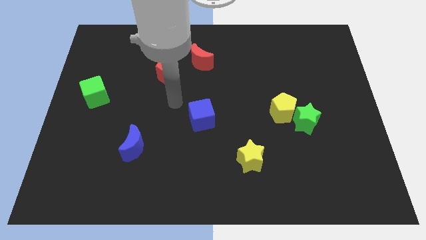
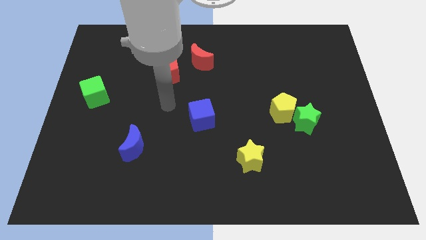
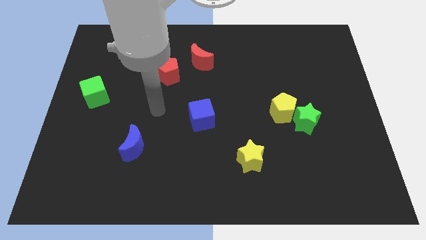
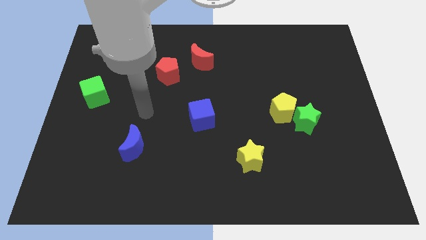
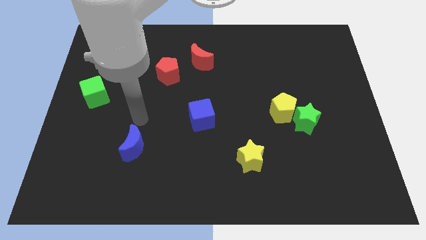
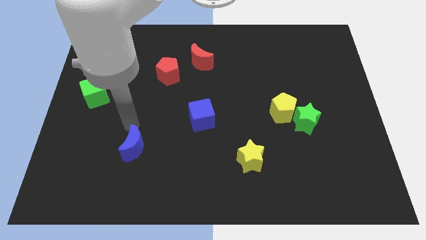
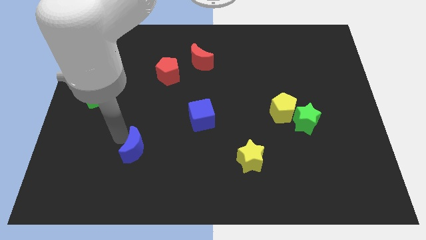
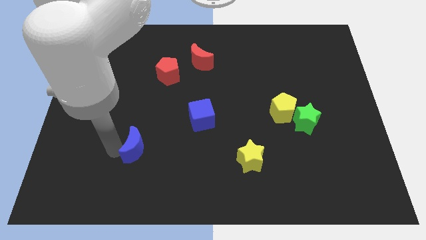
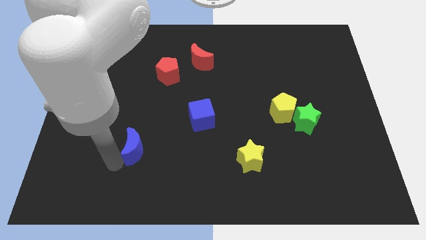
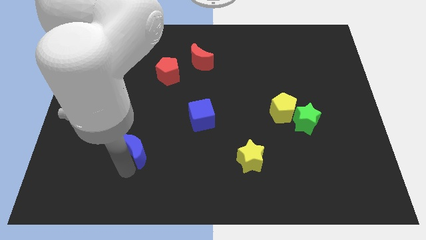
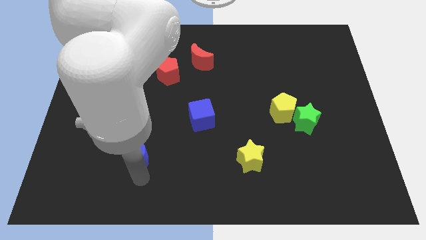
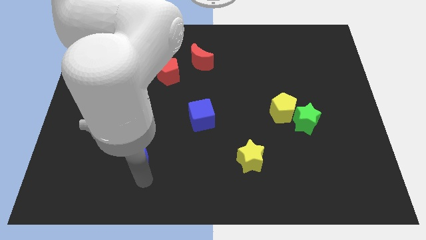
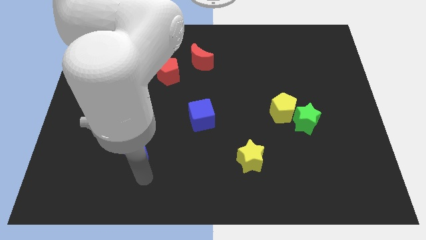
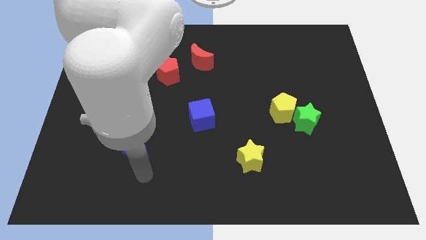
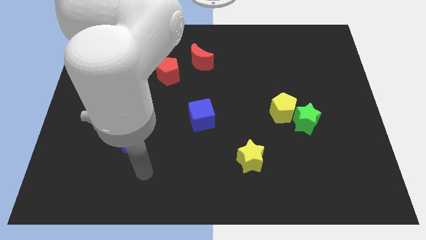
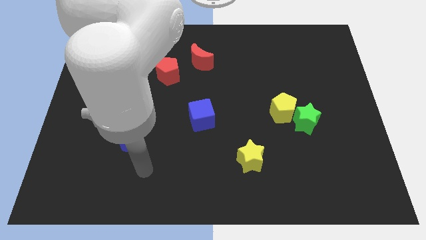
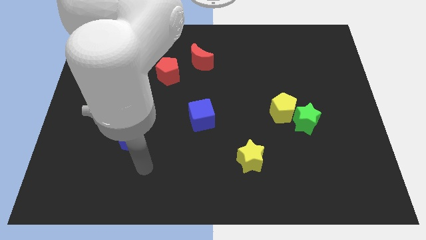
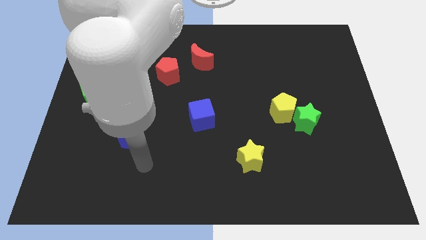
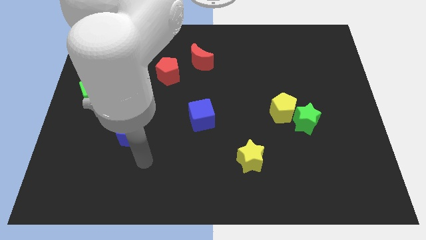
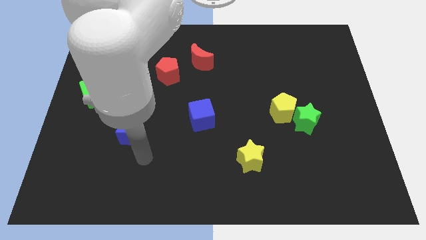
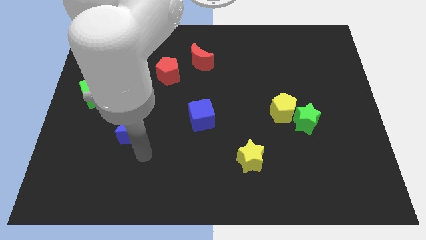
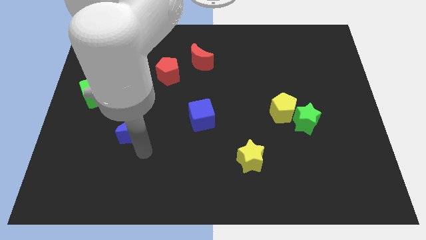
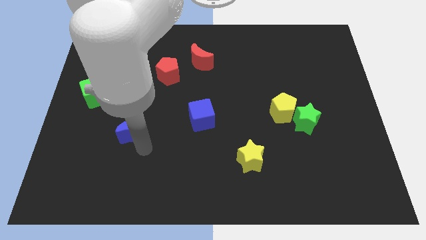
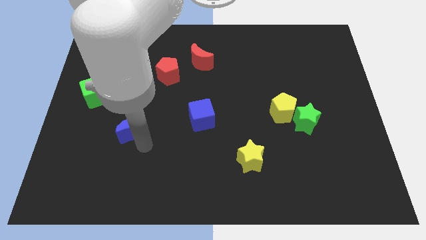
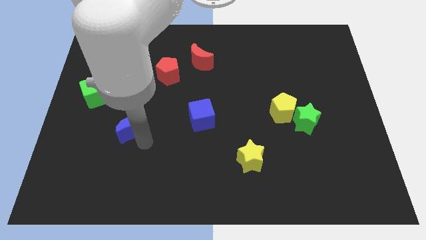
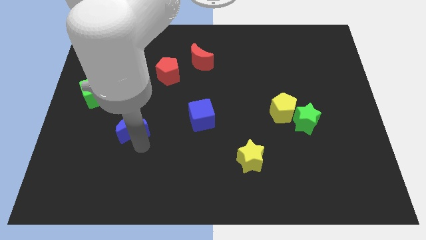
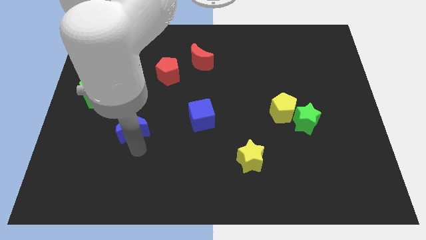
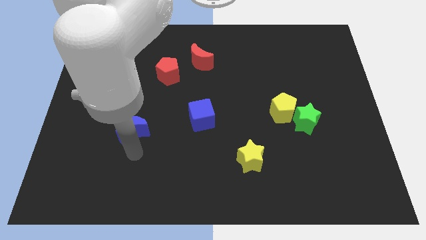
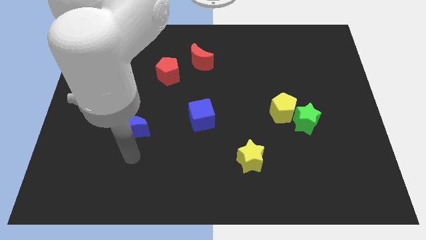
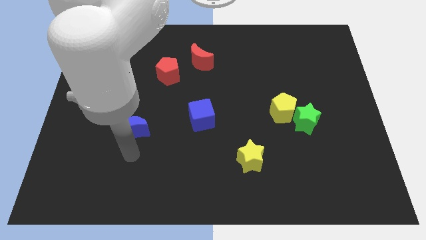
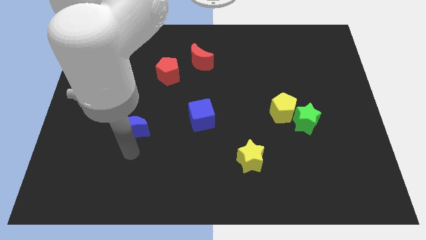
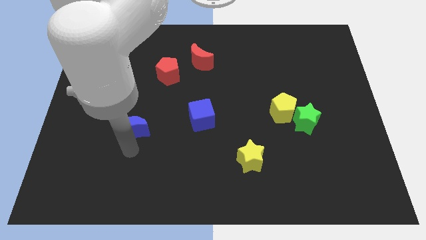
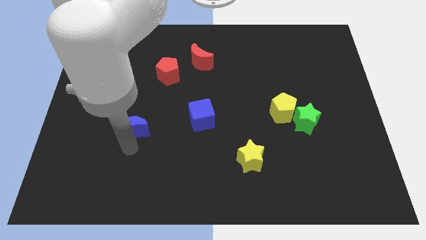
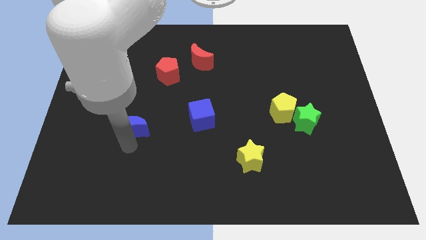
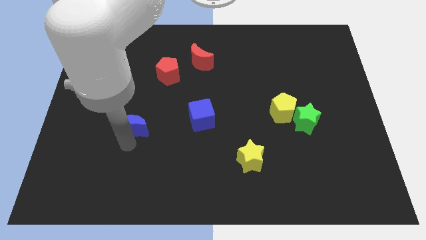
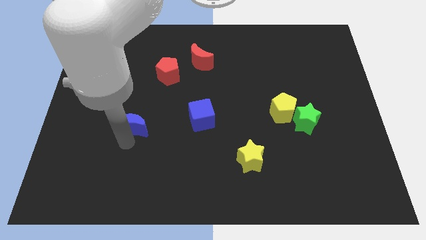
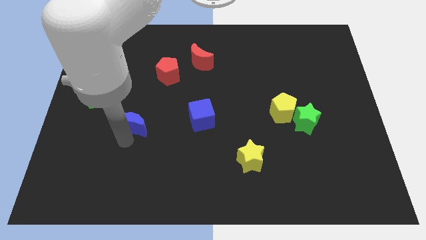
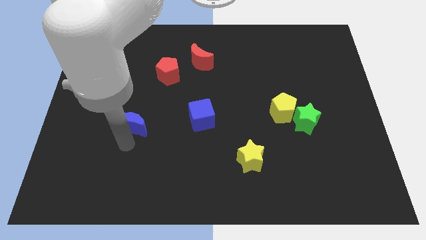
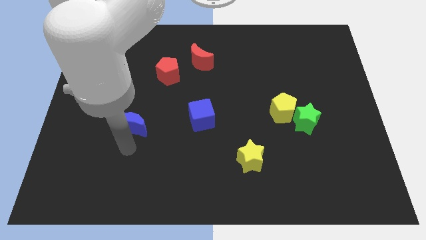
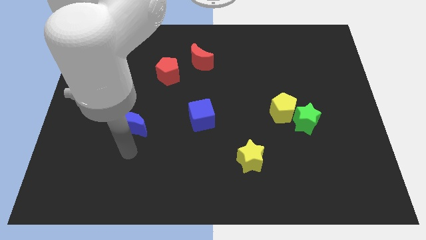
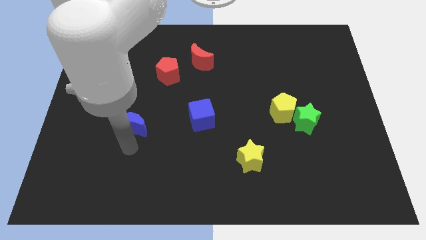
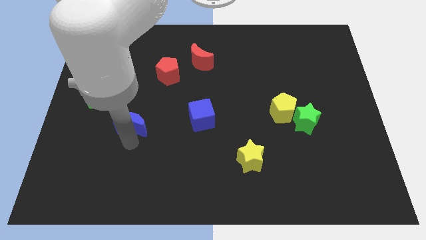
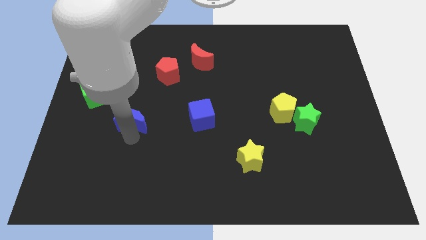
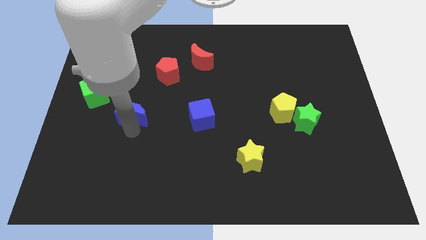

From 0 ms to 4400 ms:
slightly slide the blue moon upwards

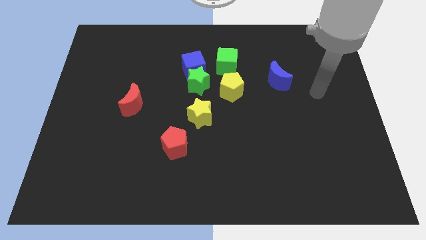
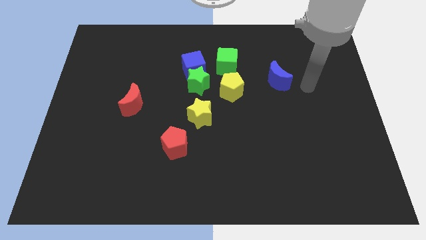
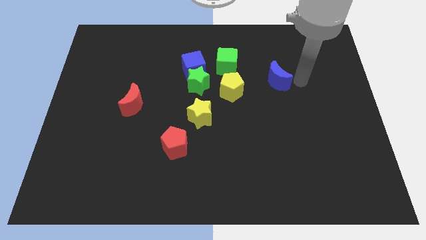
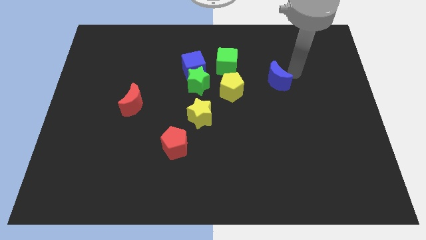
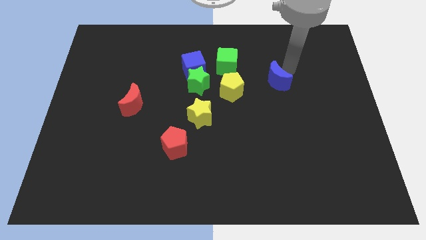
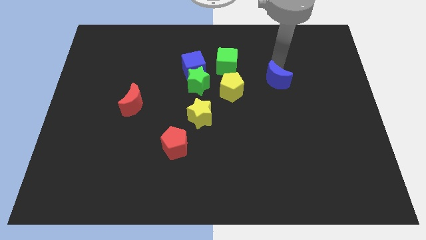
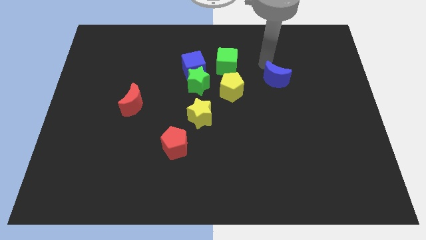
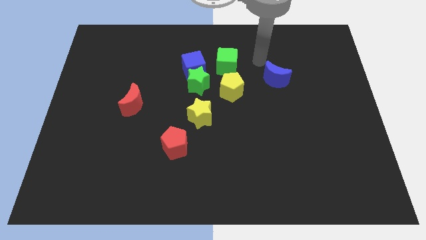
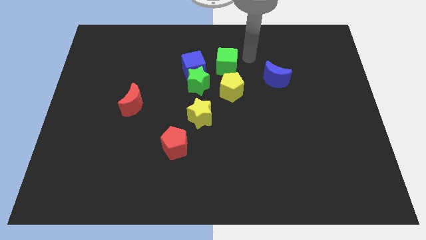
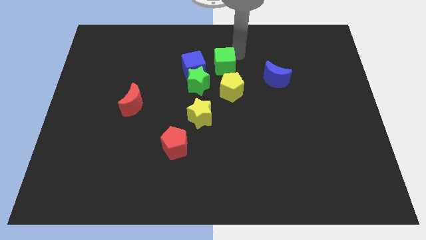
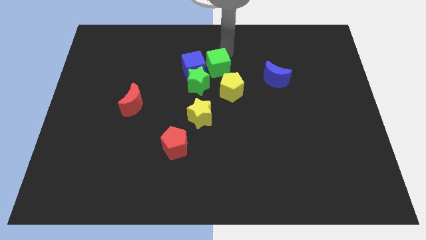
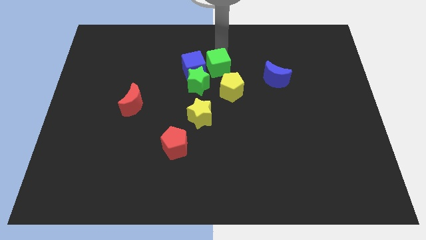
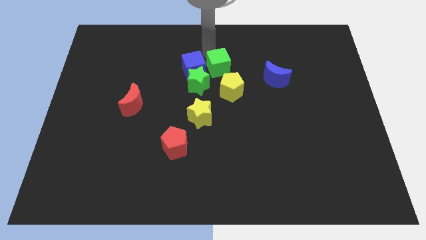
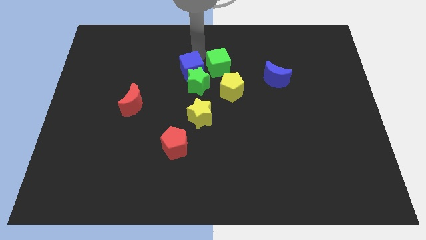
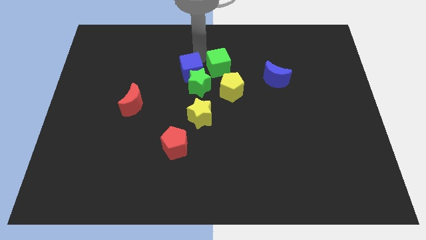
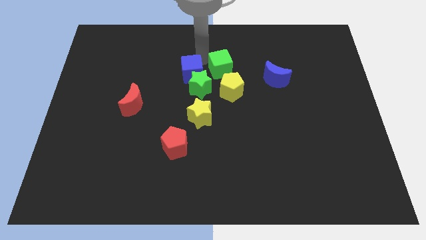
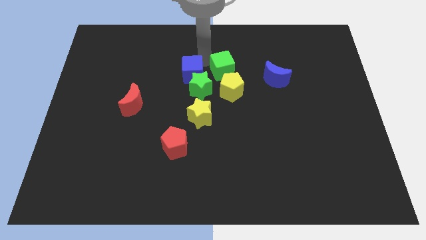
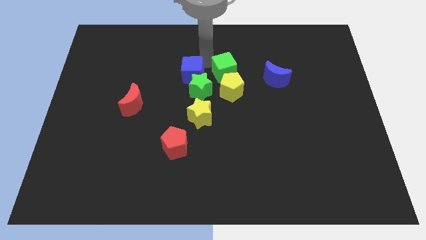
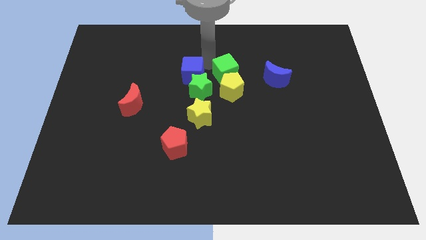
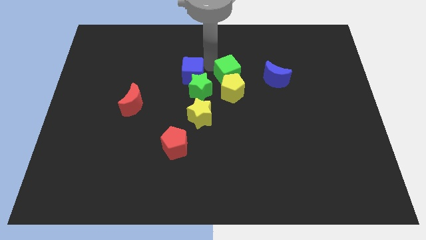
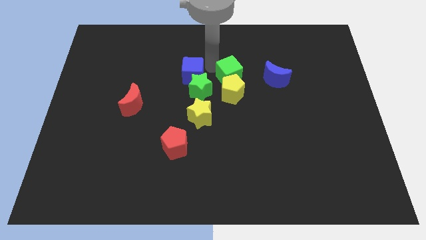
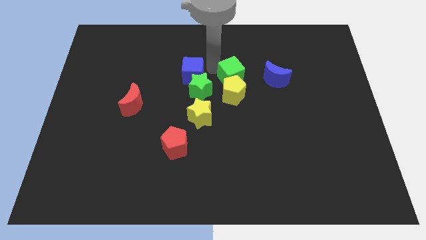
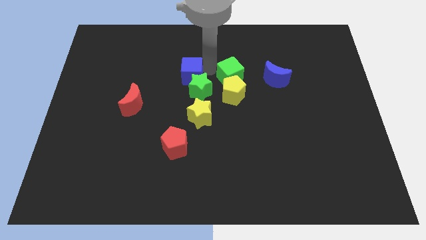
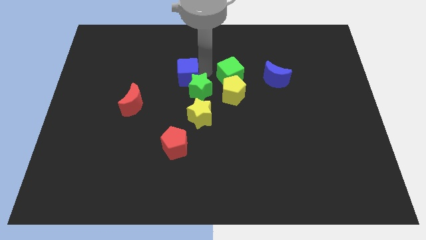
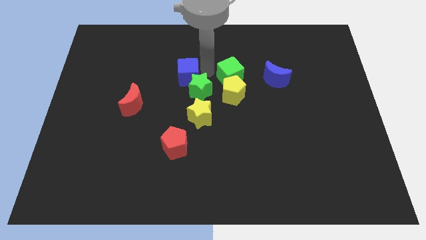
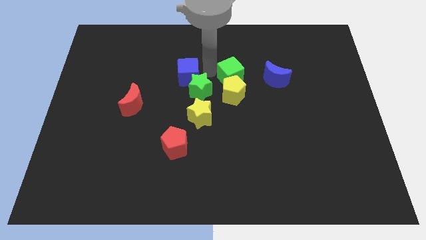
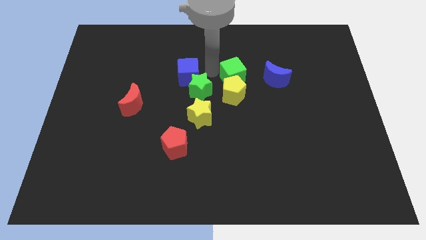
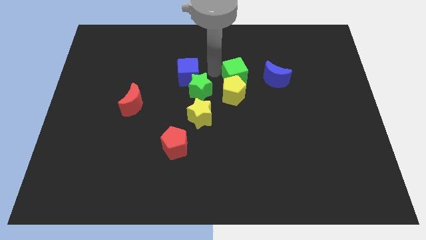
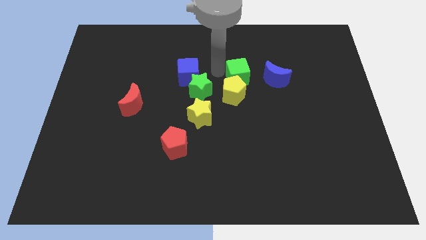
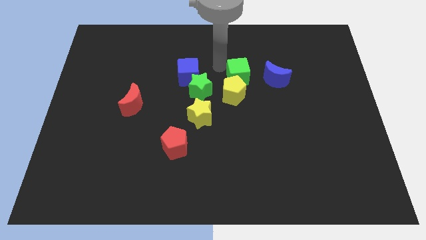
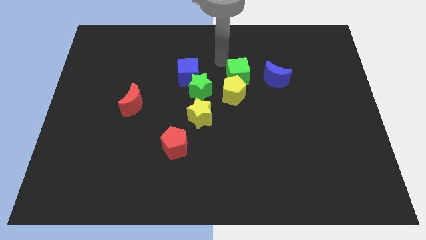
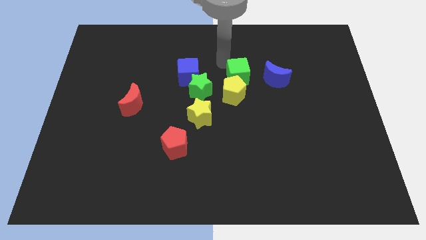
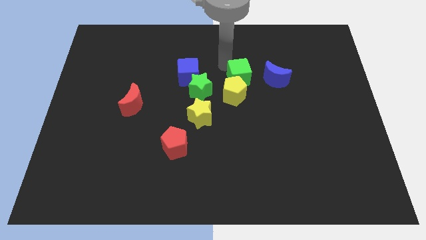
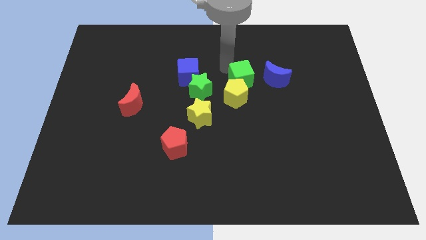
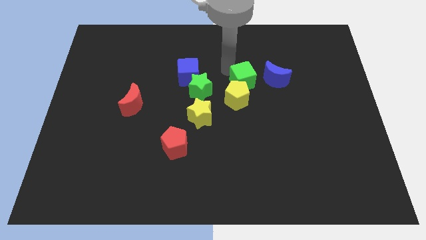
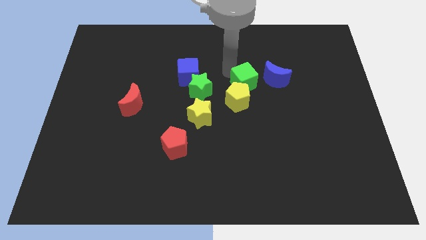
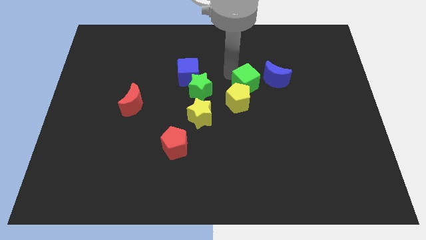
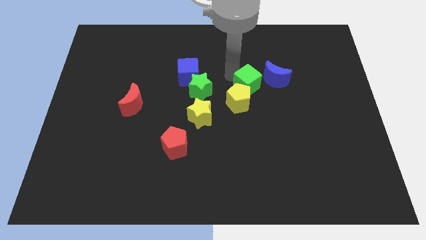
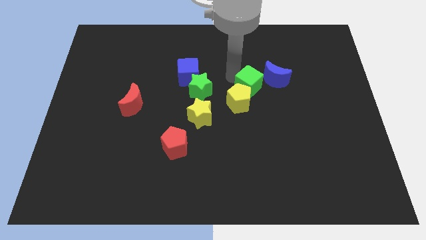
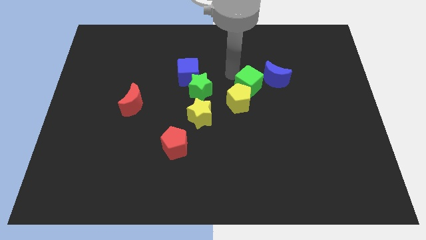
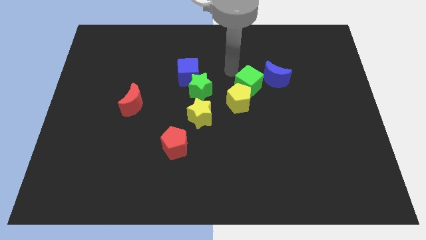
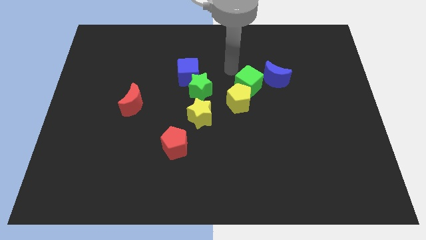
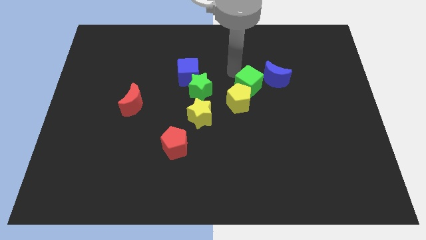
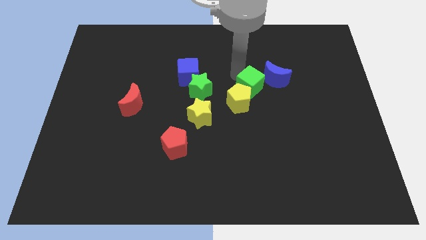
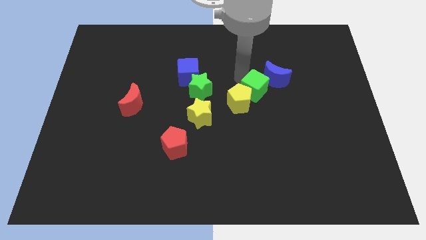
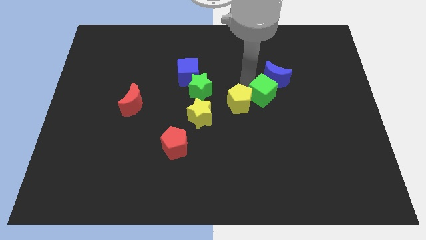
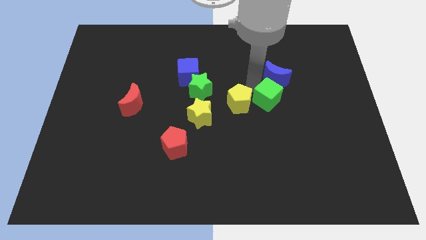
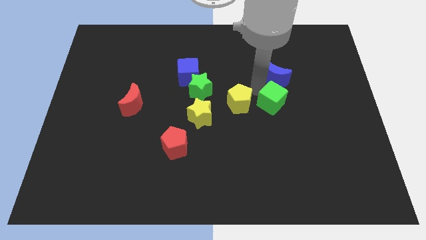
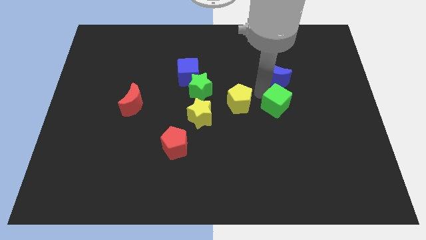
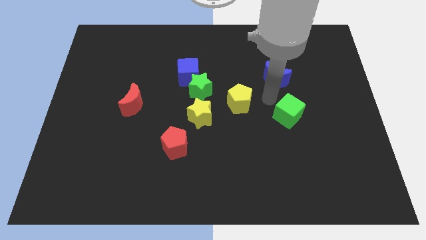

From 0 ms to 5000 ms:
slide the green cube down and then right
